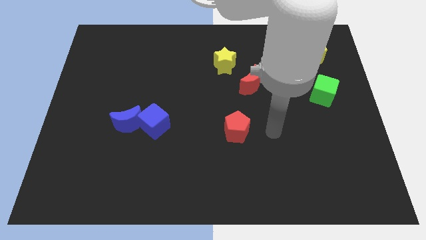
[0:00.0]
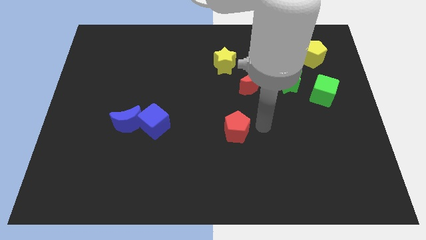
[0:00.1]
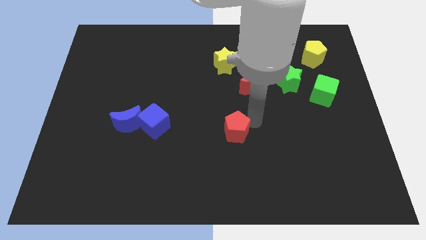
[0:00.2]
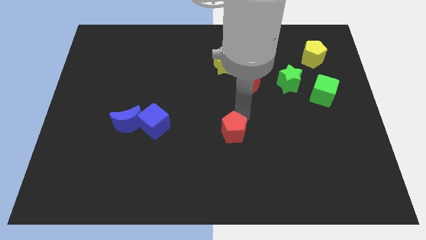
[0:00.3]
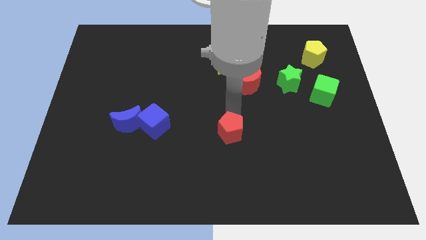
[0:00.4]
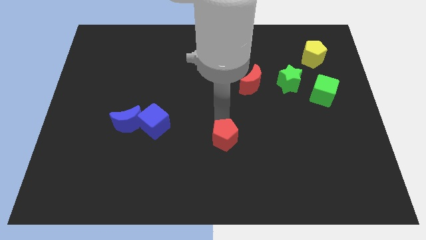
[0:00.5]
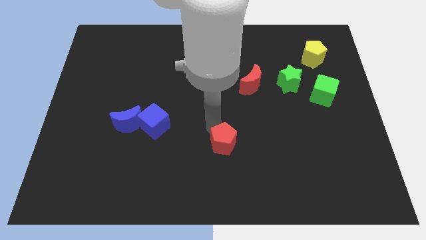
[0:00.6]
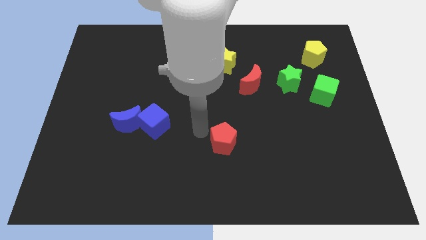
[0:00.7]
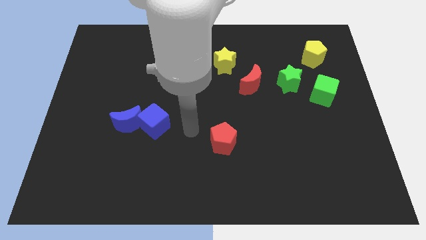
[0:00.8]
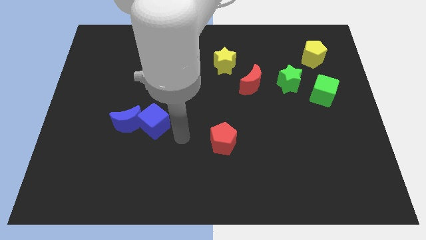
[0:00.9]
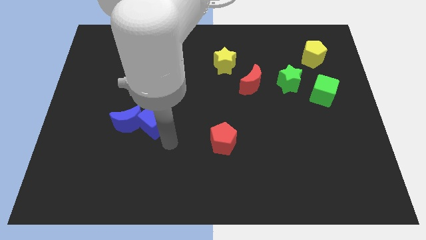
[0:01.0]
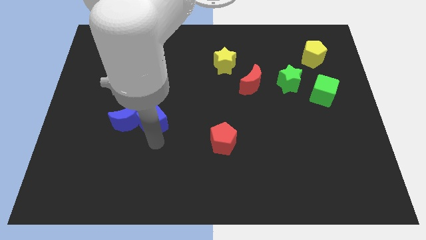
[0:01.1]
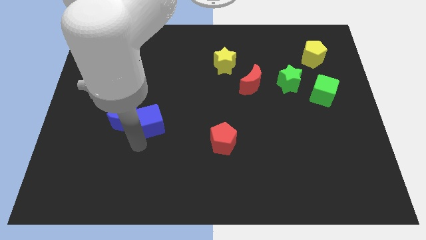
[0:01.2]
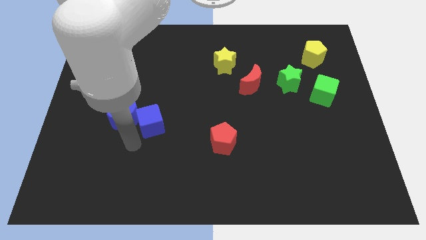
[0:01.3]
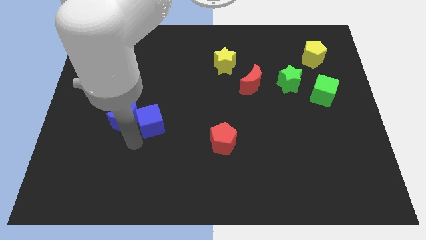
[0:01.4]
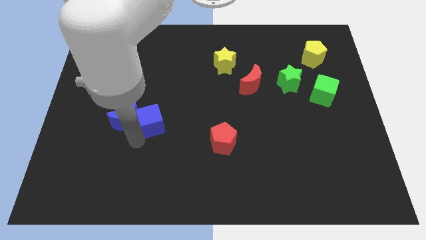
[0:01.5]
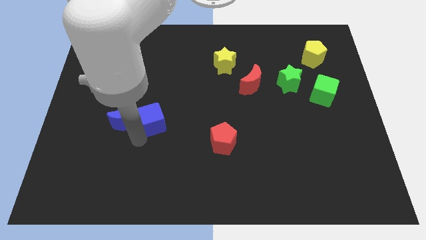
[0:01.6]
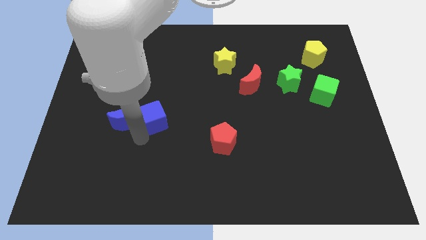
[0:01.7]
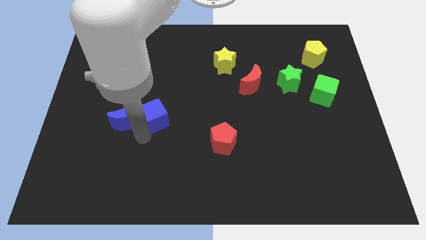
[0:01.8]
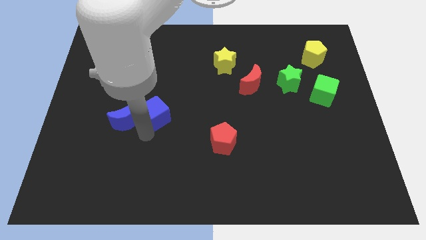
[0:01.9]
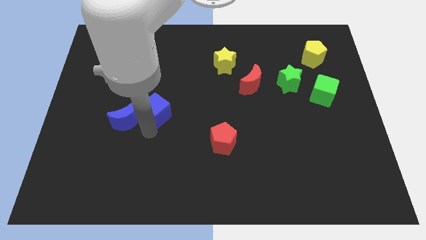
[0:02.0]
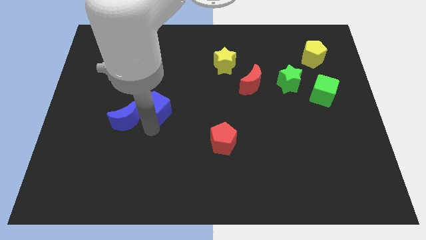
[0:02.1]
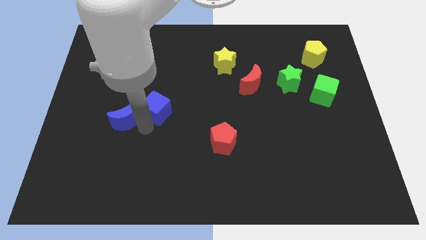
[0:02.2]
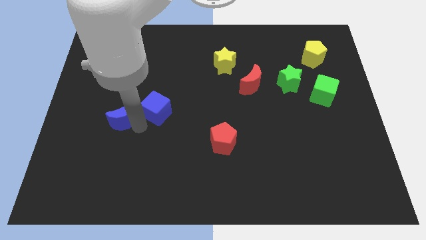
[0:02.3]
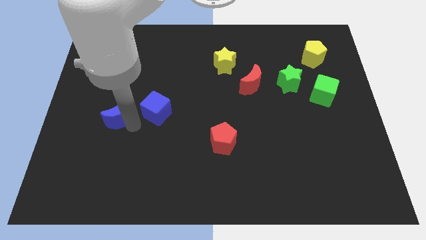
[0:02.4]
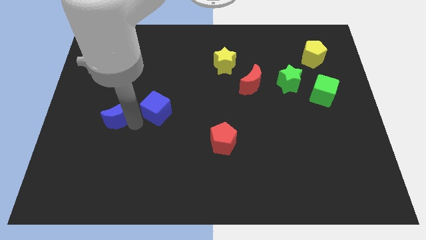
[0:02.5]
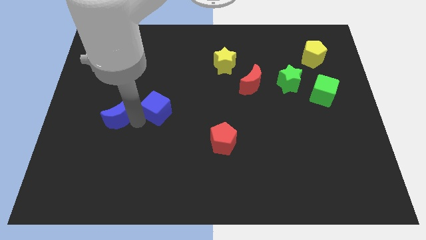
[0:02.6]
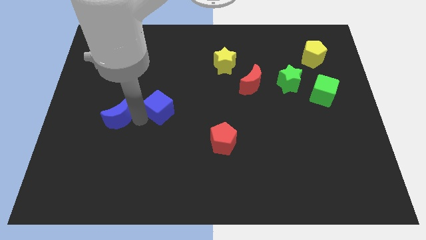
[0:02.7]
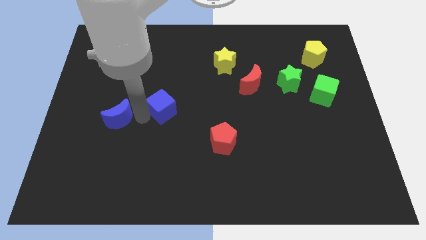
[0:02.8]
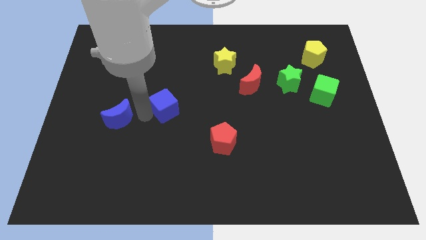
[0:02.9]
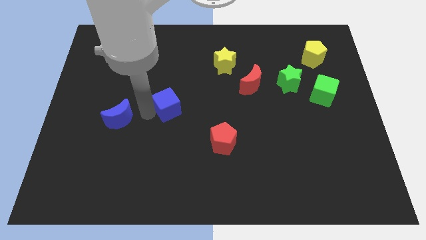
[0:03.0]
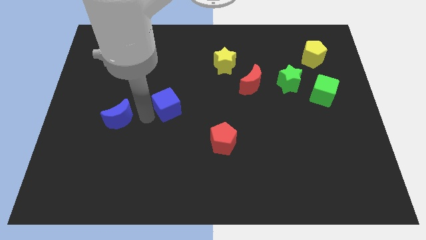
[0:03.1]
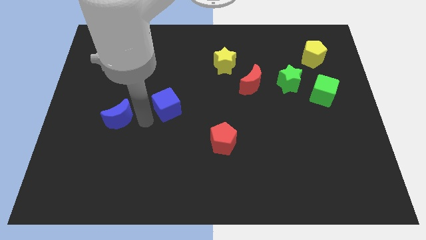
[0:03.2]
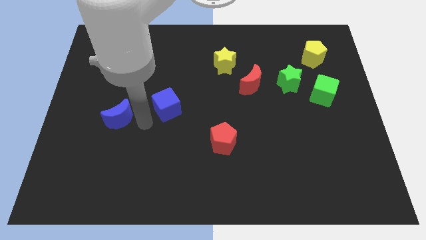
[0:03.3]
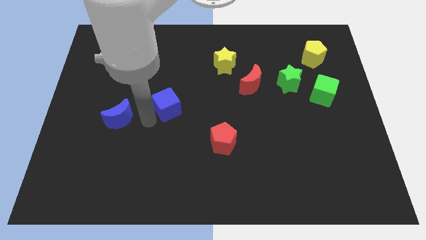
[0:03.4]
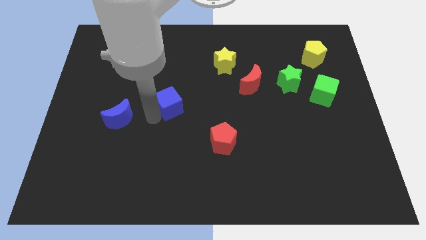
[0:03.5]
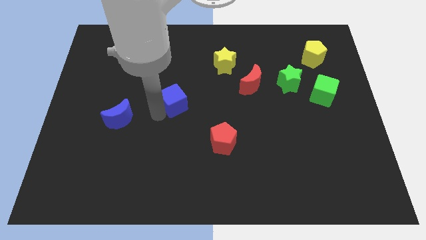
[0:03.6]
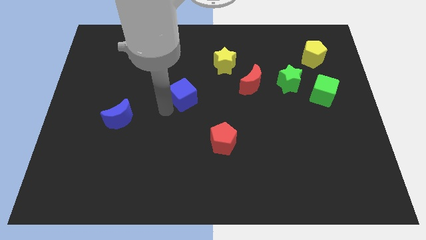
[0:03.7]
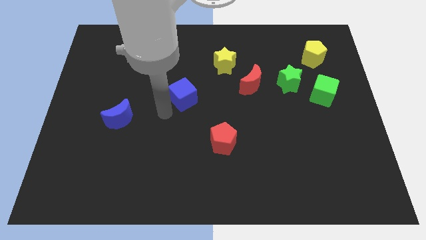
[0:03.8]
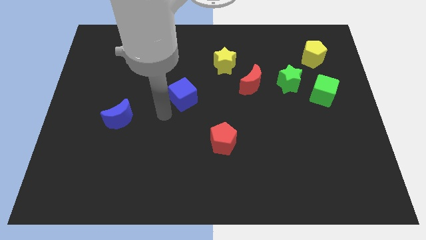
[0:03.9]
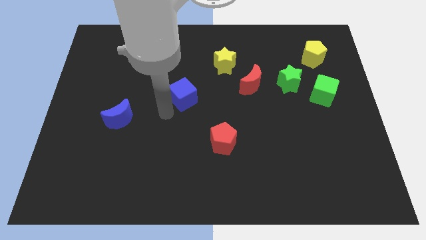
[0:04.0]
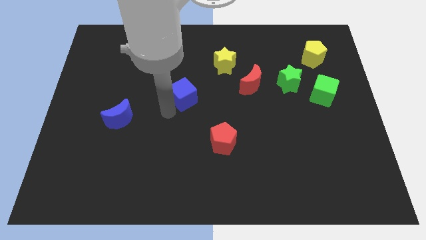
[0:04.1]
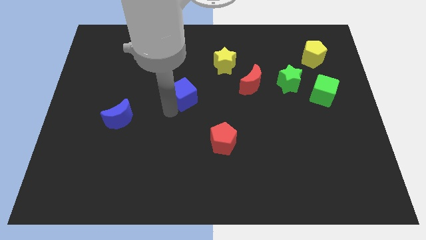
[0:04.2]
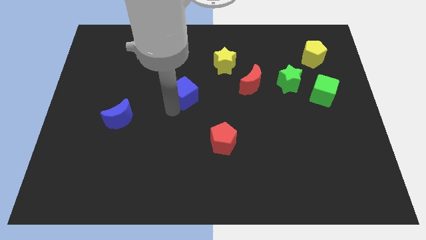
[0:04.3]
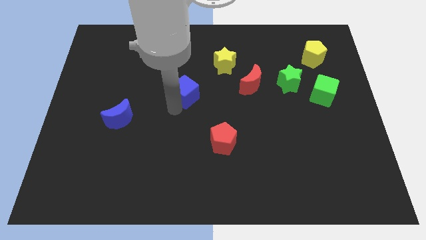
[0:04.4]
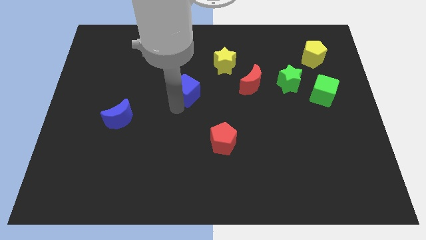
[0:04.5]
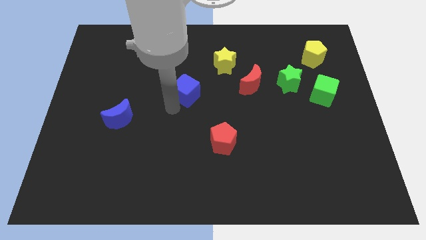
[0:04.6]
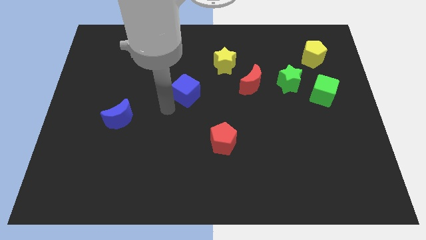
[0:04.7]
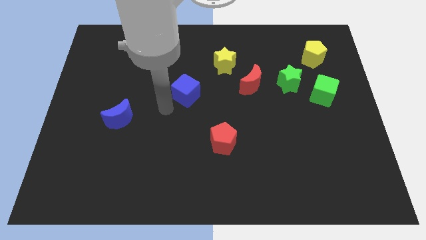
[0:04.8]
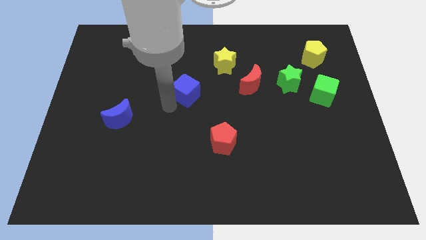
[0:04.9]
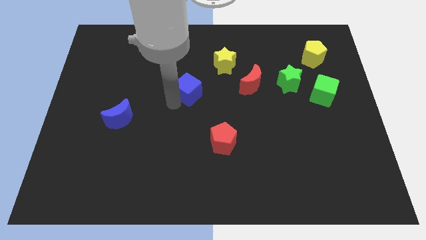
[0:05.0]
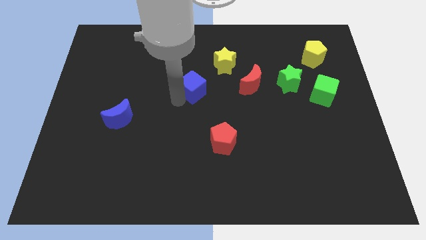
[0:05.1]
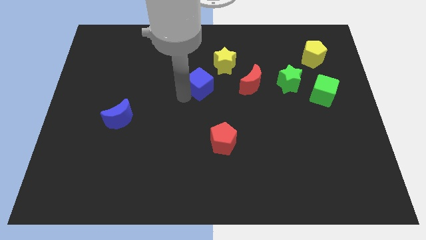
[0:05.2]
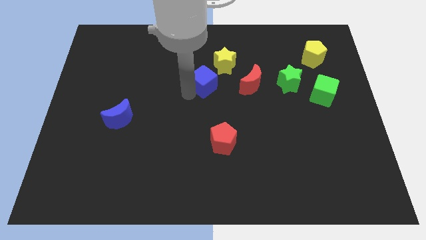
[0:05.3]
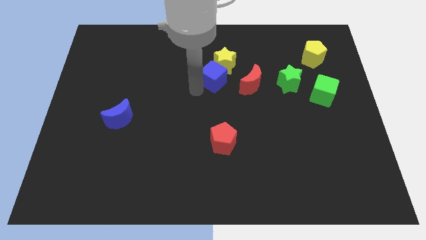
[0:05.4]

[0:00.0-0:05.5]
push the blue cube close to the yellow star

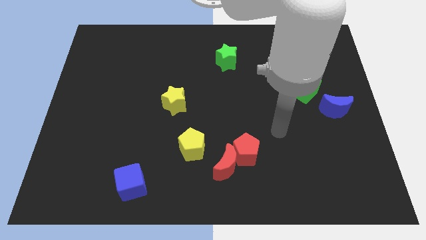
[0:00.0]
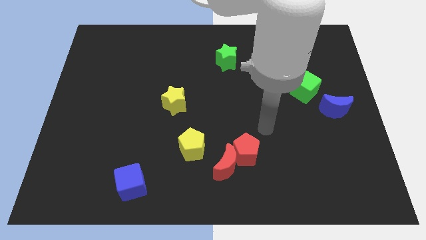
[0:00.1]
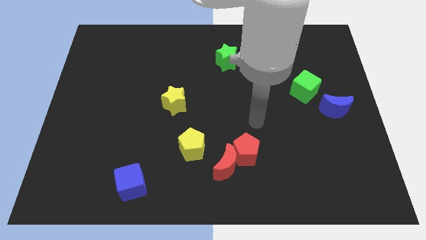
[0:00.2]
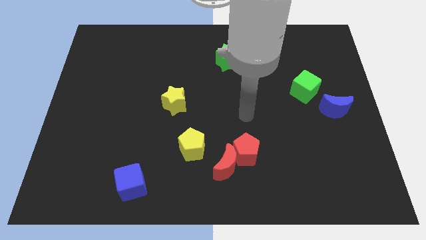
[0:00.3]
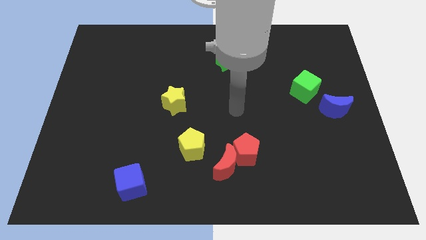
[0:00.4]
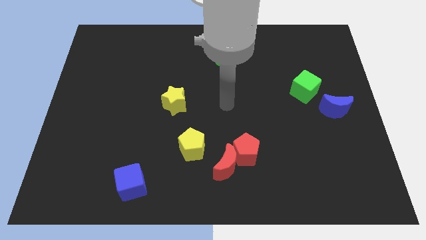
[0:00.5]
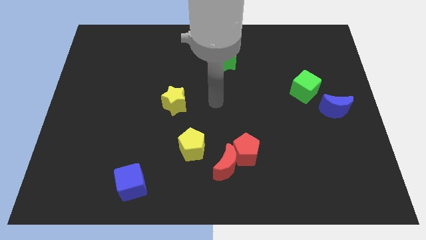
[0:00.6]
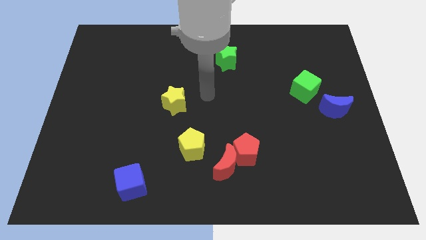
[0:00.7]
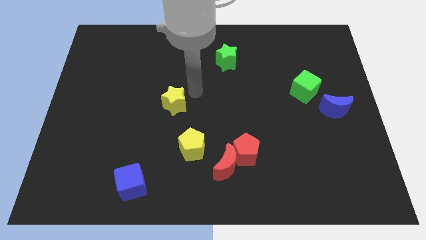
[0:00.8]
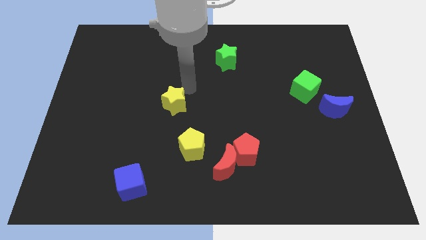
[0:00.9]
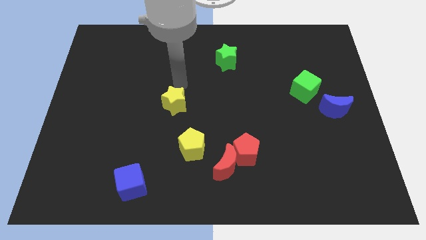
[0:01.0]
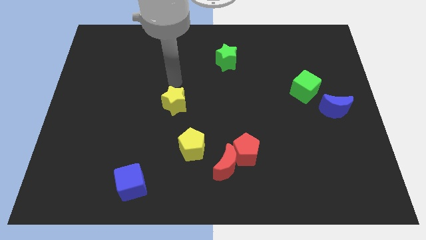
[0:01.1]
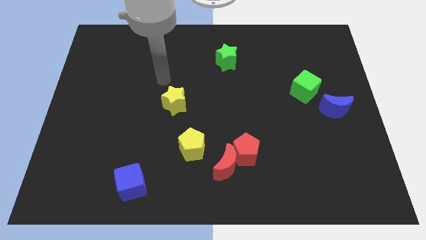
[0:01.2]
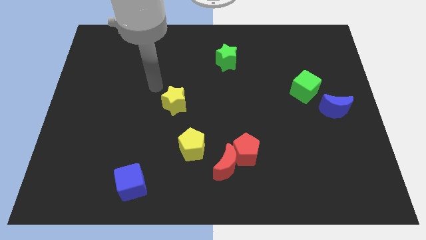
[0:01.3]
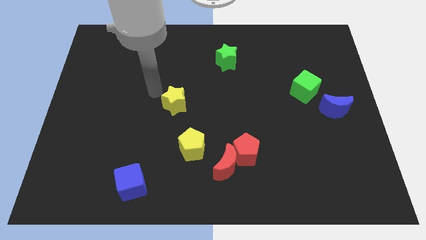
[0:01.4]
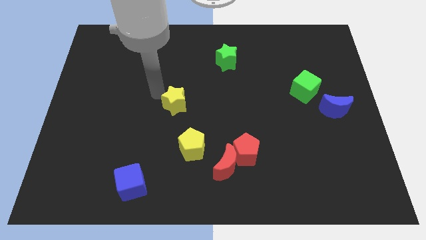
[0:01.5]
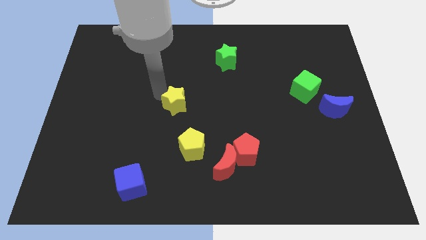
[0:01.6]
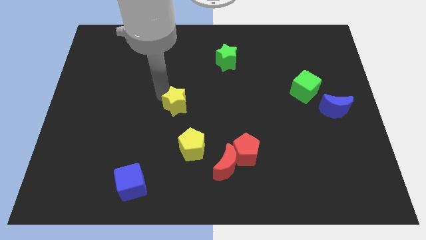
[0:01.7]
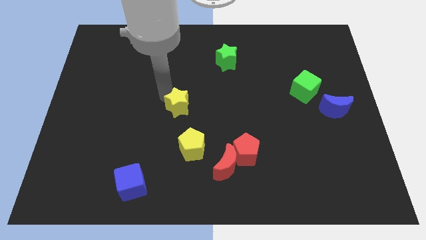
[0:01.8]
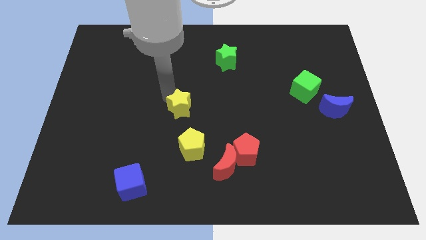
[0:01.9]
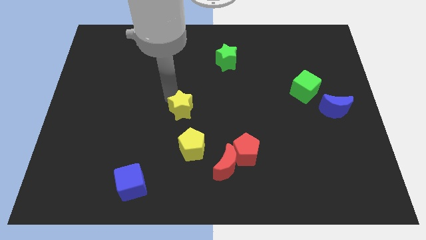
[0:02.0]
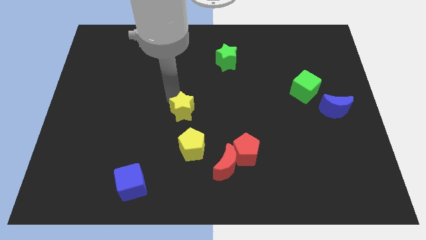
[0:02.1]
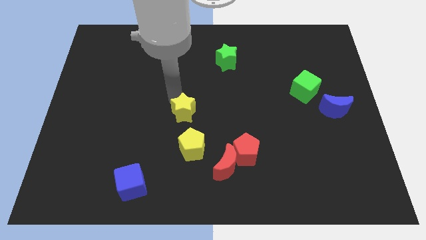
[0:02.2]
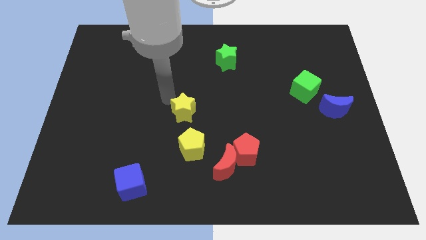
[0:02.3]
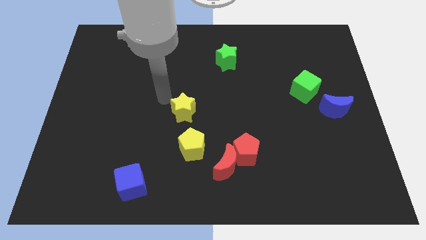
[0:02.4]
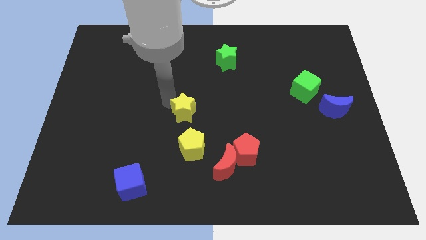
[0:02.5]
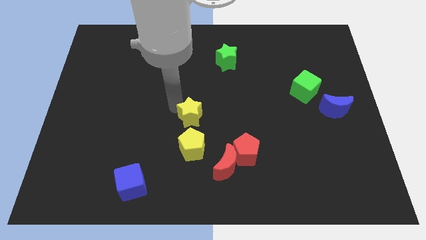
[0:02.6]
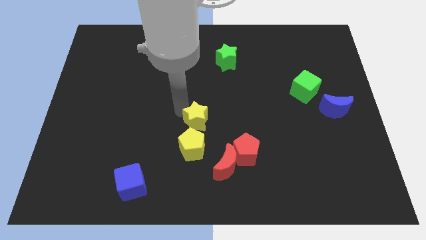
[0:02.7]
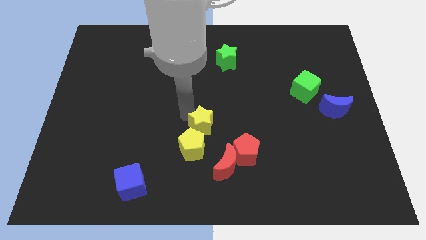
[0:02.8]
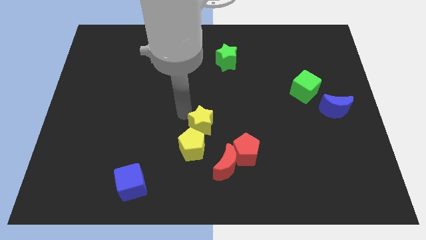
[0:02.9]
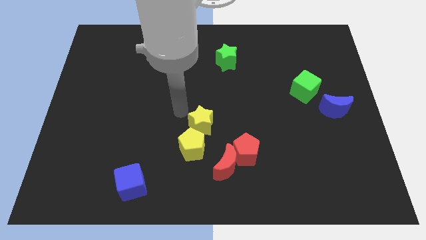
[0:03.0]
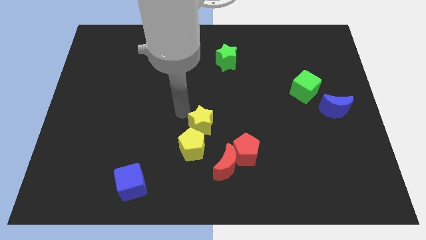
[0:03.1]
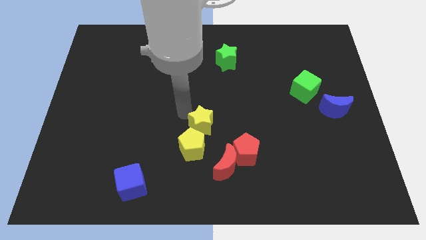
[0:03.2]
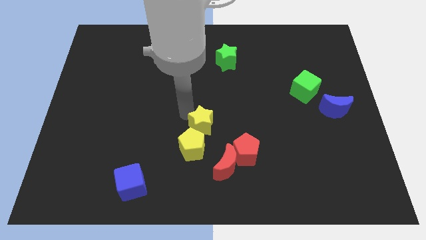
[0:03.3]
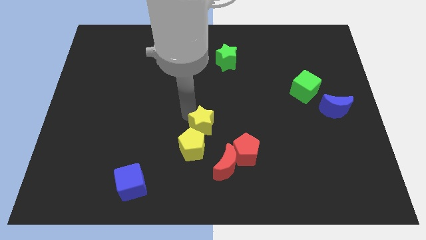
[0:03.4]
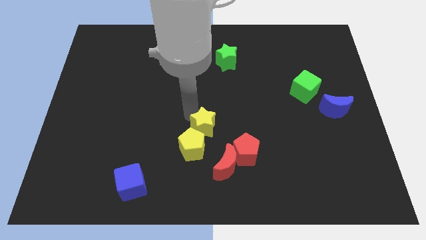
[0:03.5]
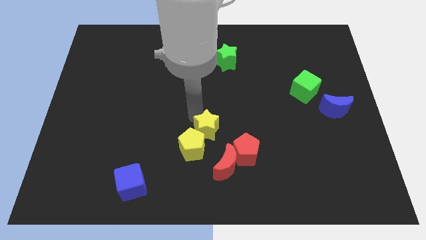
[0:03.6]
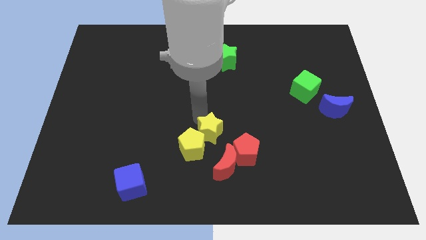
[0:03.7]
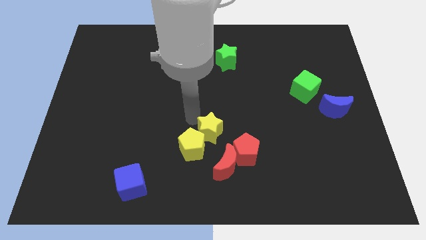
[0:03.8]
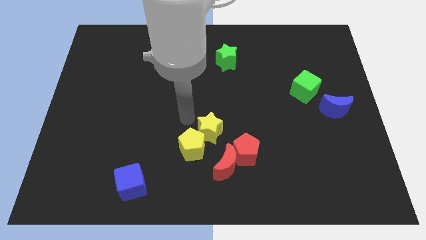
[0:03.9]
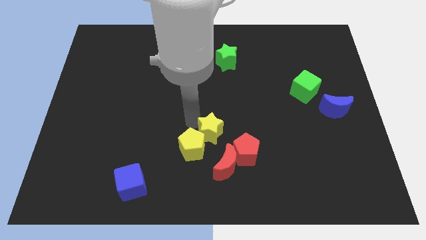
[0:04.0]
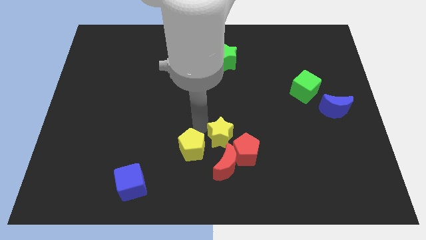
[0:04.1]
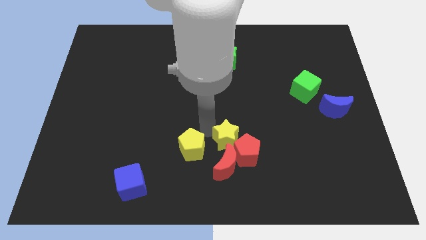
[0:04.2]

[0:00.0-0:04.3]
move the yellow star close to the red pentagon
